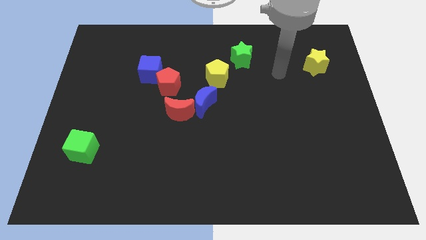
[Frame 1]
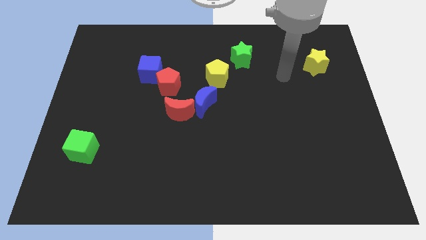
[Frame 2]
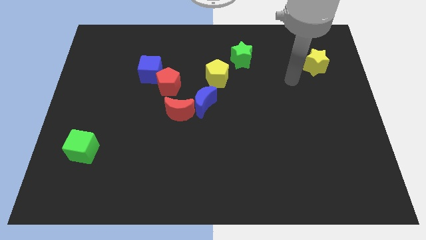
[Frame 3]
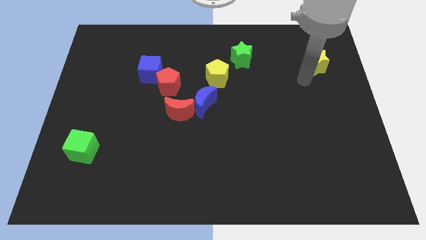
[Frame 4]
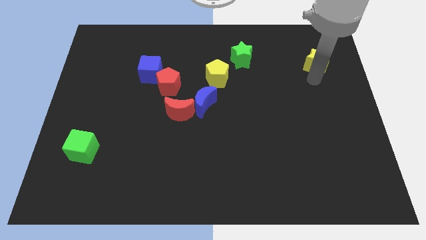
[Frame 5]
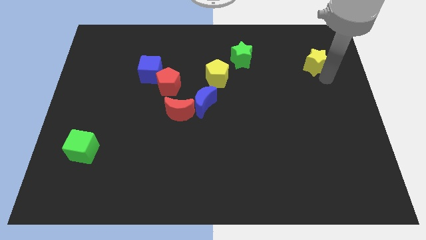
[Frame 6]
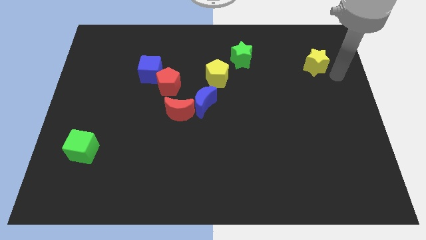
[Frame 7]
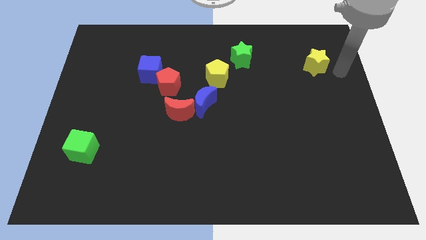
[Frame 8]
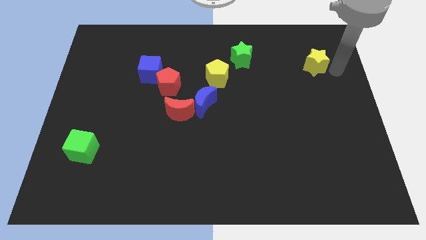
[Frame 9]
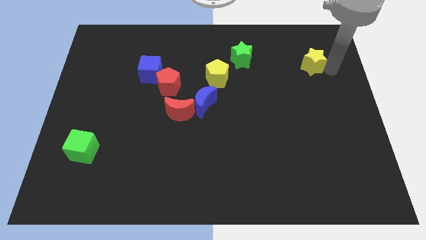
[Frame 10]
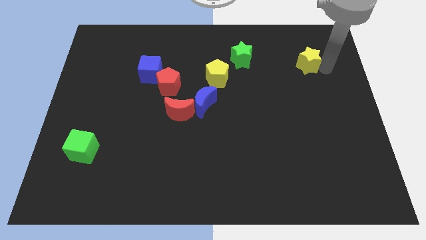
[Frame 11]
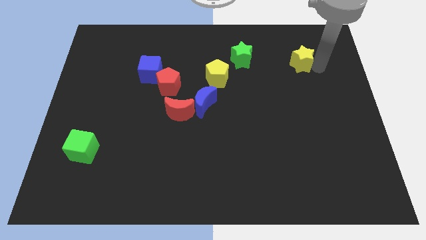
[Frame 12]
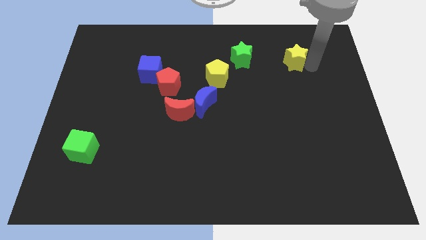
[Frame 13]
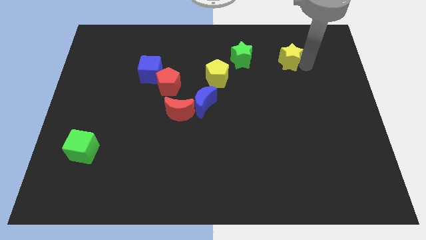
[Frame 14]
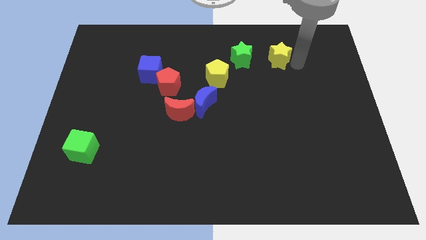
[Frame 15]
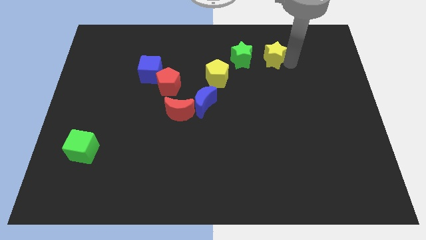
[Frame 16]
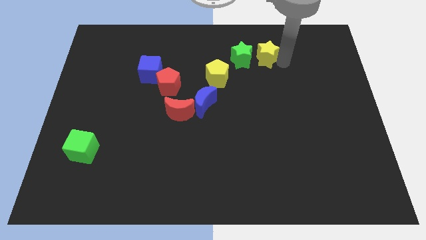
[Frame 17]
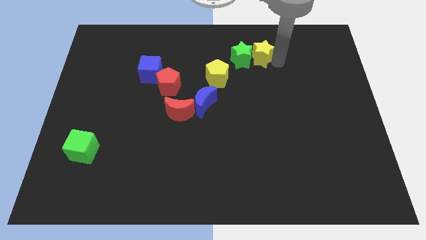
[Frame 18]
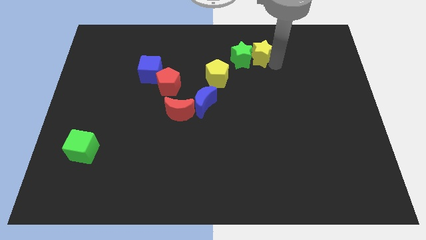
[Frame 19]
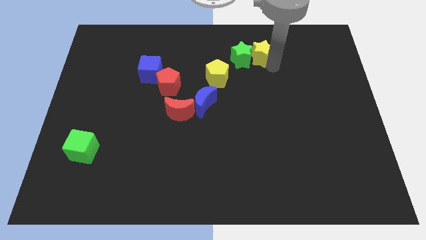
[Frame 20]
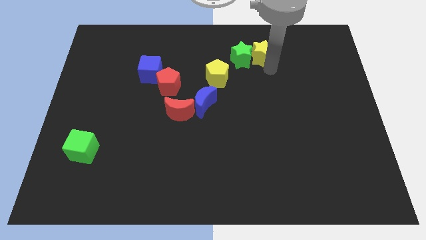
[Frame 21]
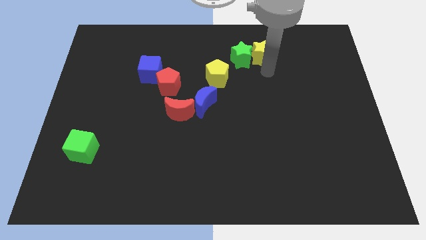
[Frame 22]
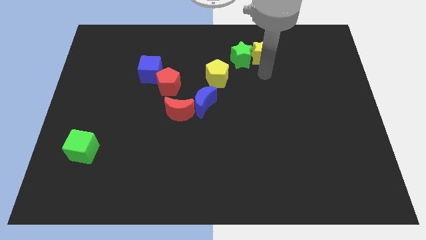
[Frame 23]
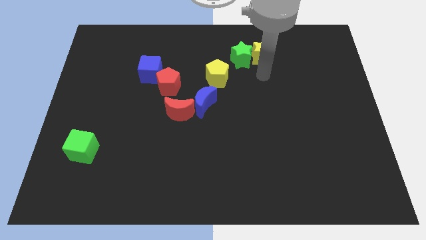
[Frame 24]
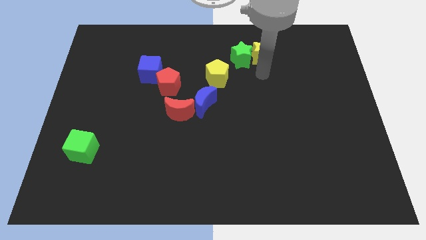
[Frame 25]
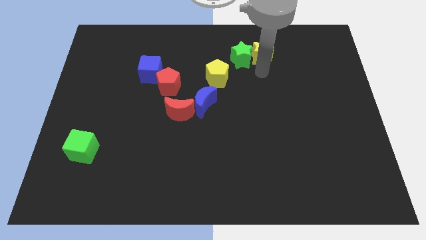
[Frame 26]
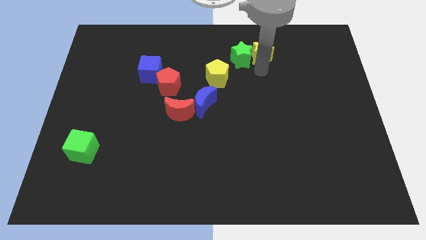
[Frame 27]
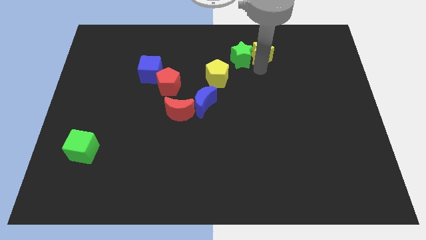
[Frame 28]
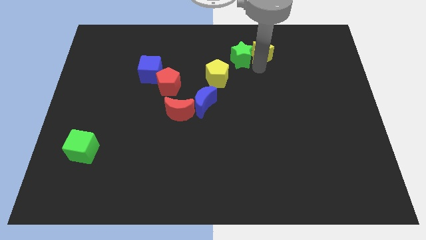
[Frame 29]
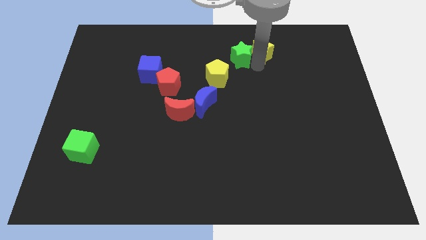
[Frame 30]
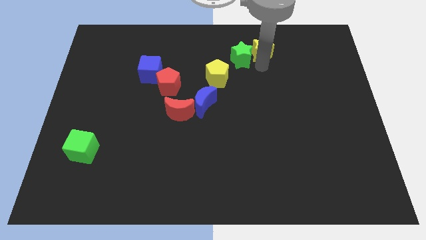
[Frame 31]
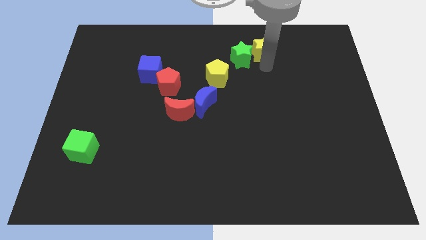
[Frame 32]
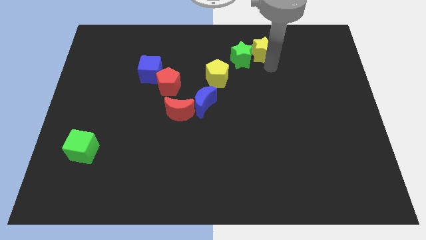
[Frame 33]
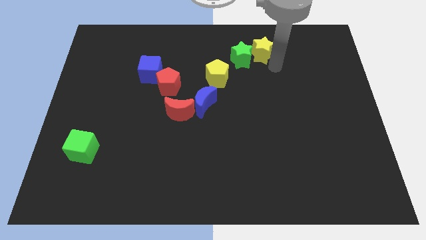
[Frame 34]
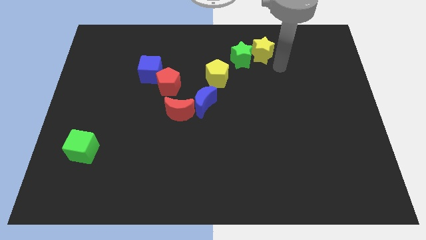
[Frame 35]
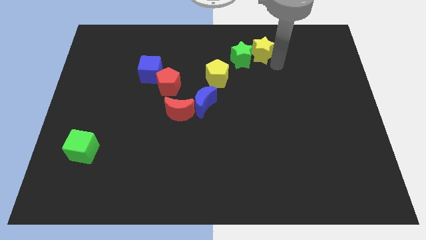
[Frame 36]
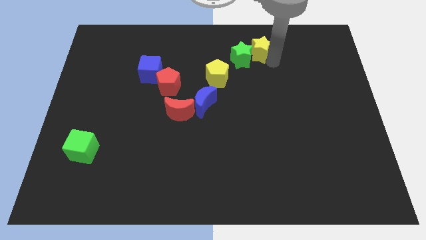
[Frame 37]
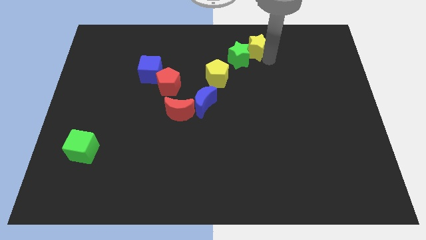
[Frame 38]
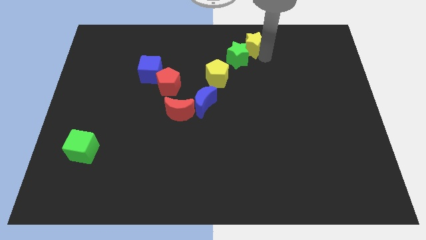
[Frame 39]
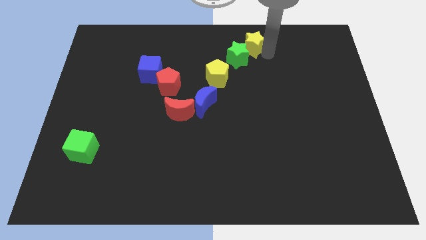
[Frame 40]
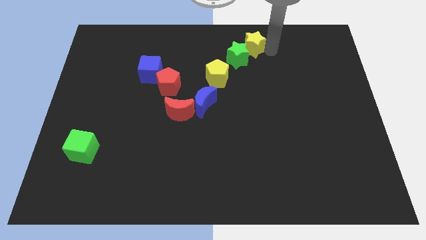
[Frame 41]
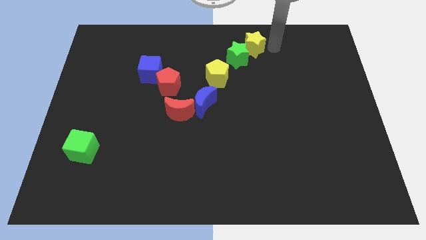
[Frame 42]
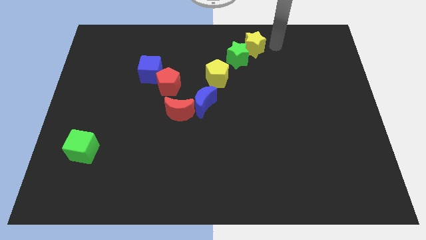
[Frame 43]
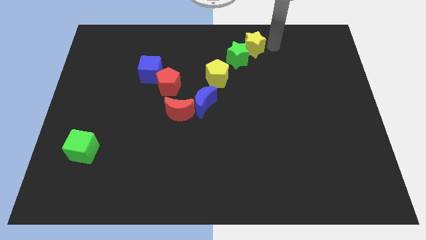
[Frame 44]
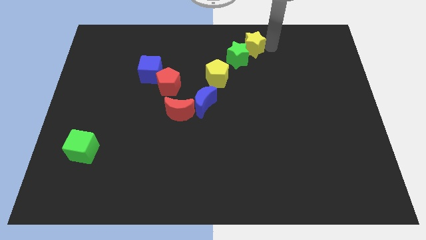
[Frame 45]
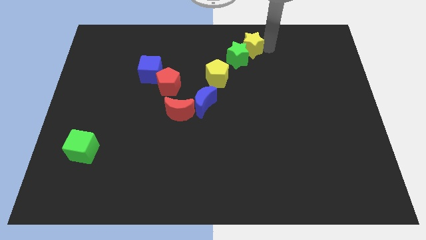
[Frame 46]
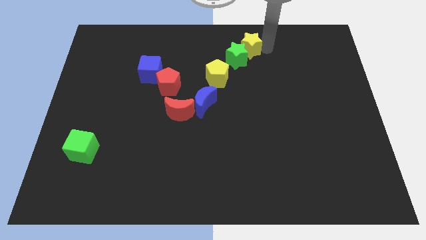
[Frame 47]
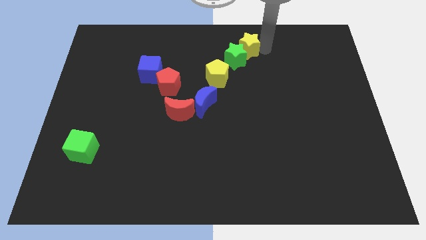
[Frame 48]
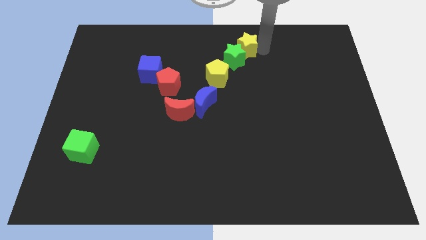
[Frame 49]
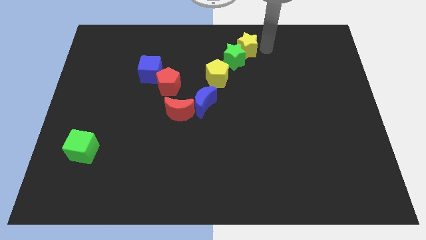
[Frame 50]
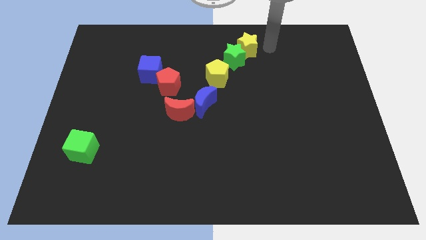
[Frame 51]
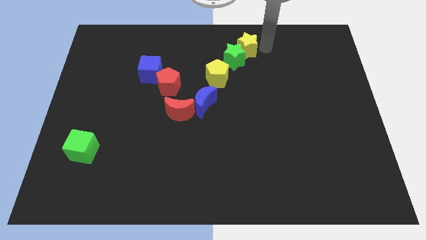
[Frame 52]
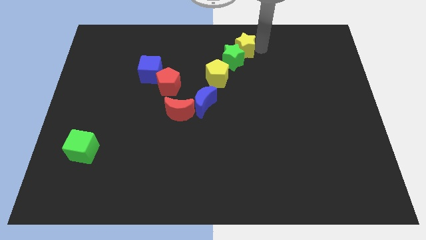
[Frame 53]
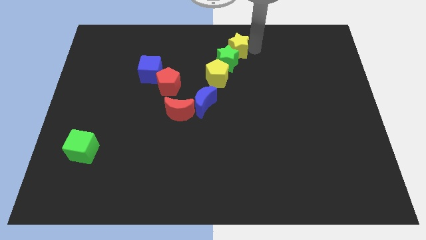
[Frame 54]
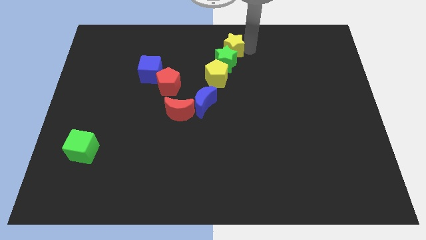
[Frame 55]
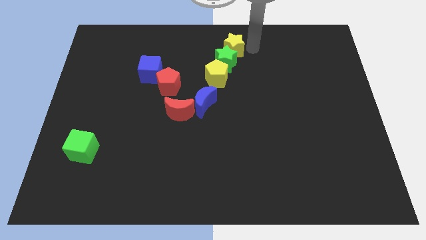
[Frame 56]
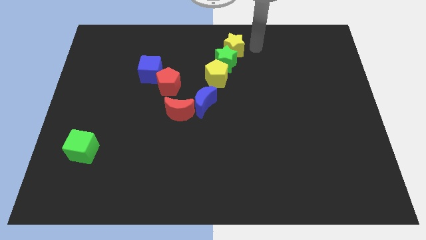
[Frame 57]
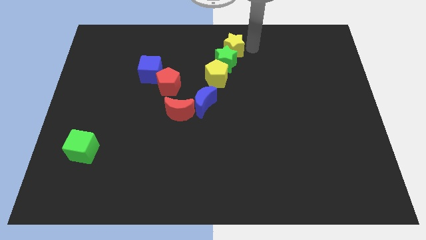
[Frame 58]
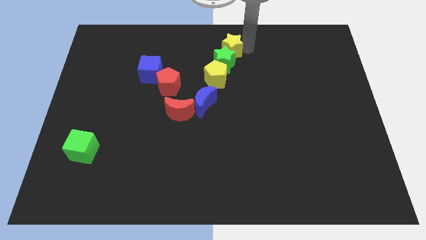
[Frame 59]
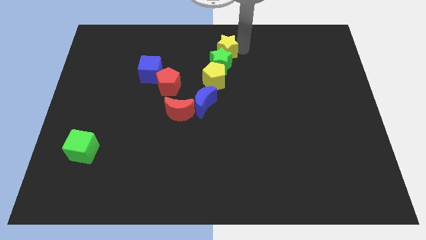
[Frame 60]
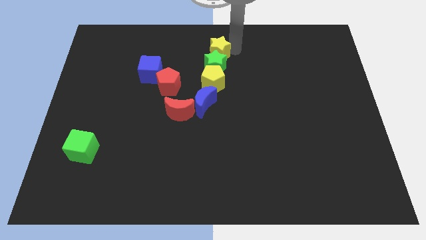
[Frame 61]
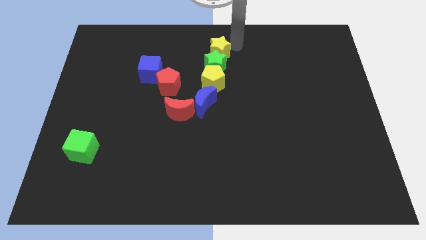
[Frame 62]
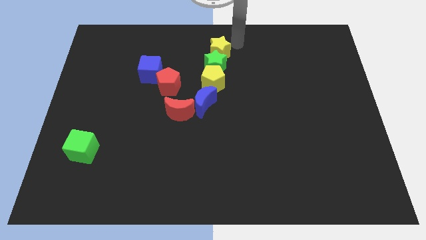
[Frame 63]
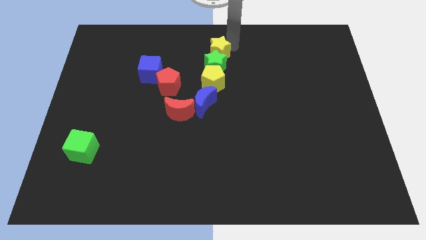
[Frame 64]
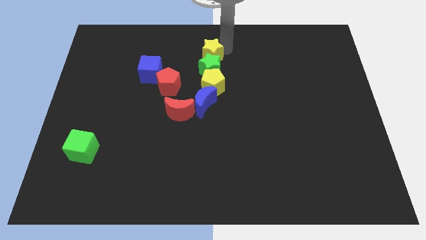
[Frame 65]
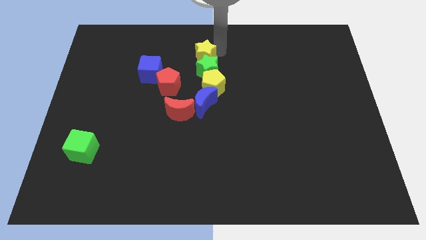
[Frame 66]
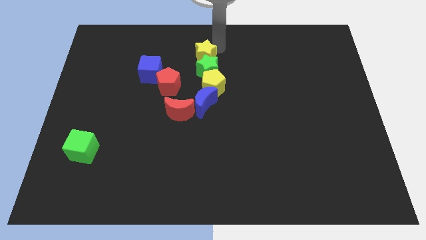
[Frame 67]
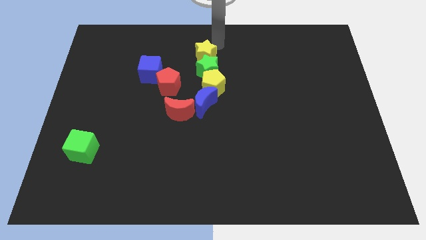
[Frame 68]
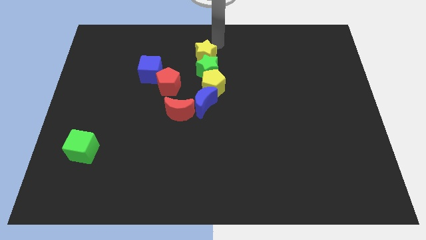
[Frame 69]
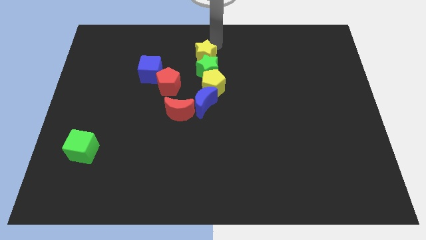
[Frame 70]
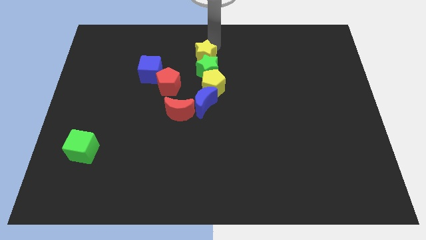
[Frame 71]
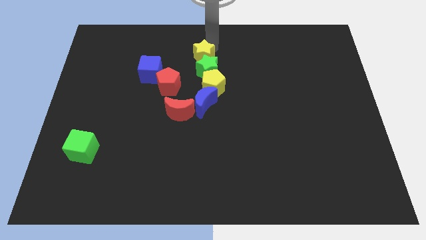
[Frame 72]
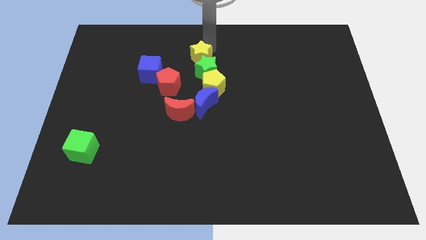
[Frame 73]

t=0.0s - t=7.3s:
push the yellow star to the top left of the yellow pentagon

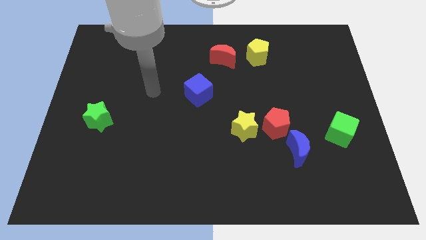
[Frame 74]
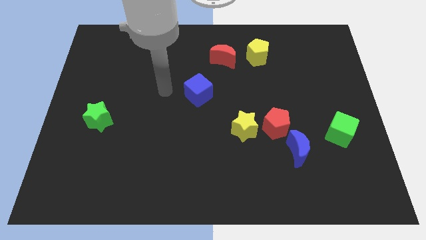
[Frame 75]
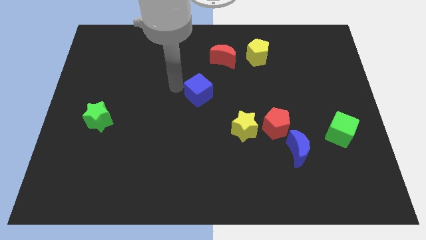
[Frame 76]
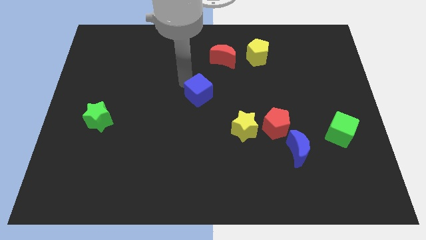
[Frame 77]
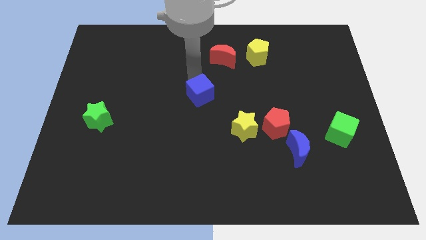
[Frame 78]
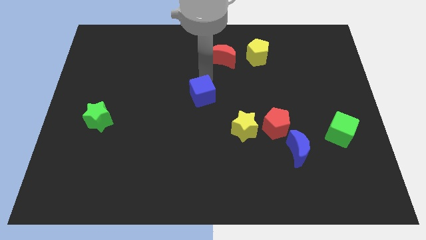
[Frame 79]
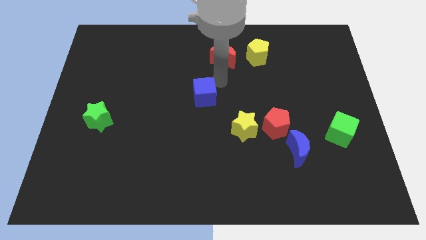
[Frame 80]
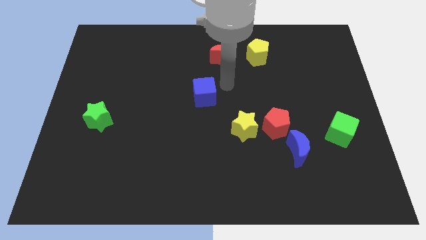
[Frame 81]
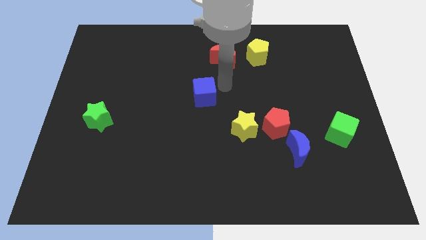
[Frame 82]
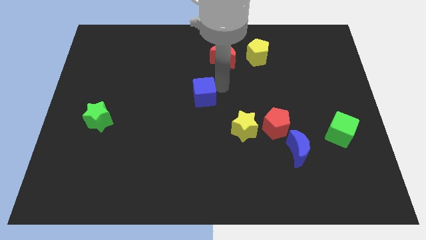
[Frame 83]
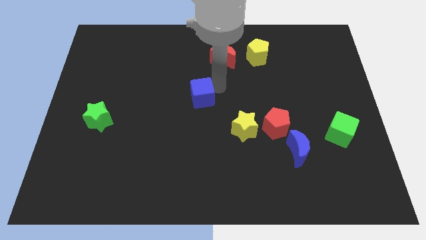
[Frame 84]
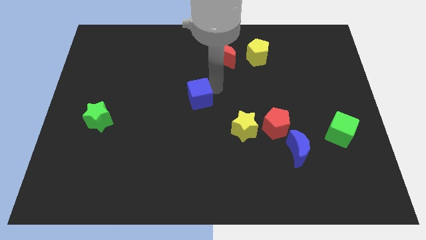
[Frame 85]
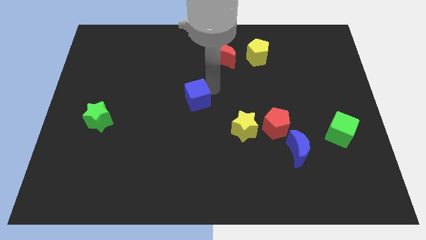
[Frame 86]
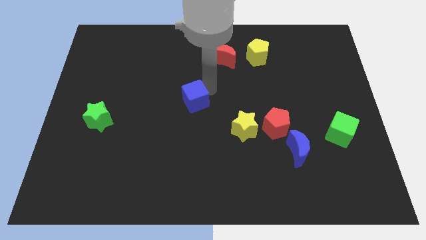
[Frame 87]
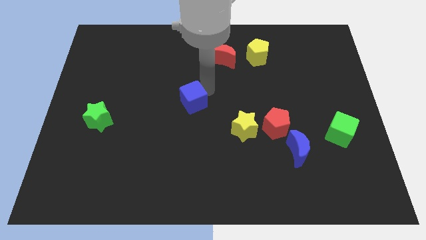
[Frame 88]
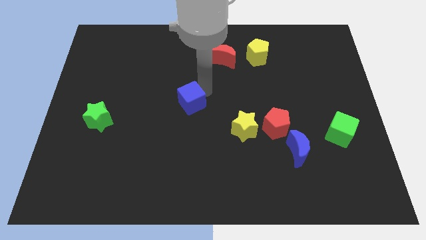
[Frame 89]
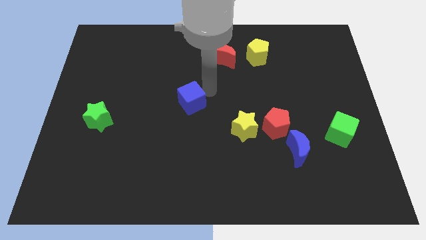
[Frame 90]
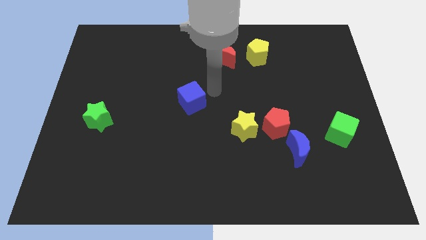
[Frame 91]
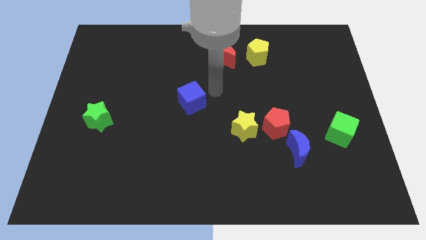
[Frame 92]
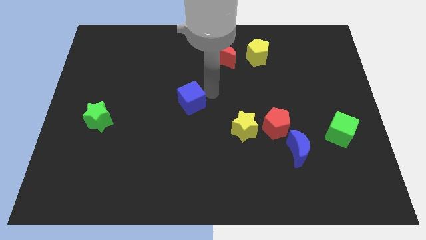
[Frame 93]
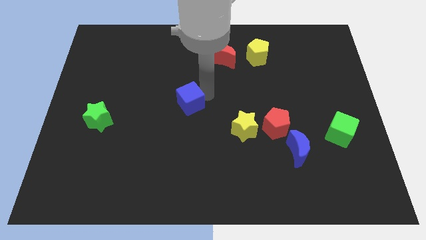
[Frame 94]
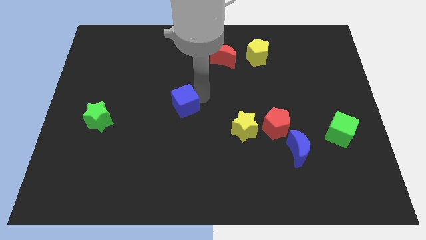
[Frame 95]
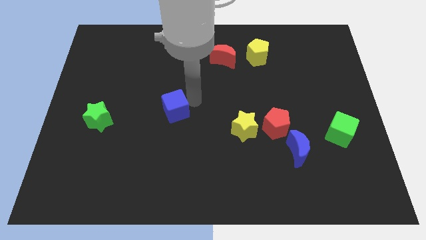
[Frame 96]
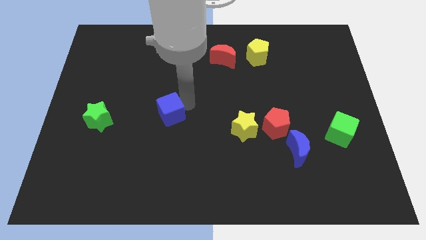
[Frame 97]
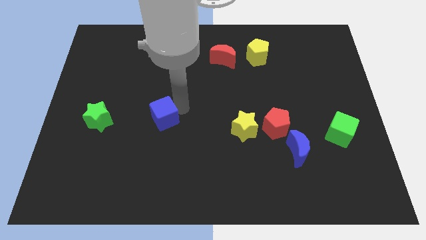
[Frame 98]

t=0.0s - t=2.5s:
move the blue cube just right of the green star
